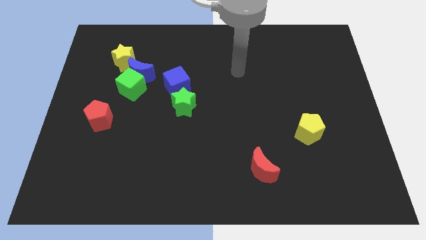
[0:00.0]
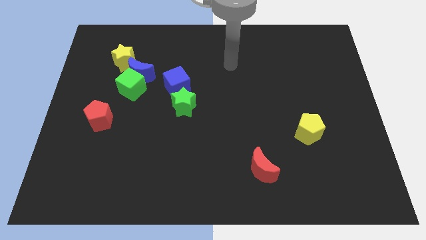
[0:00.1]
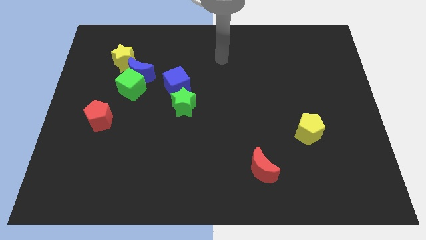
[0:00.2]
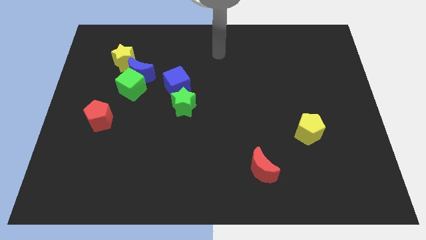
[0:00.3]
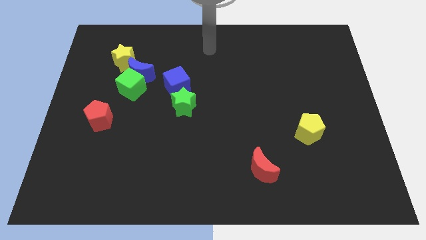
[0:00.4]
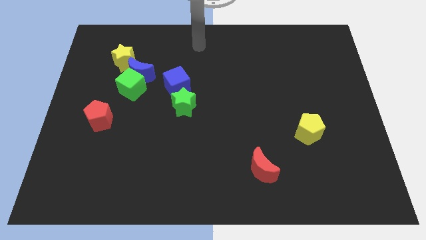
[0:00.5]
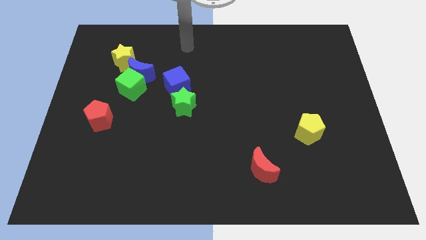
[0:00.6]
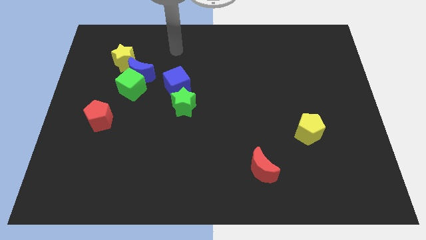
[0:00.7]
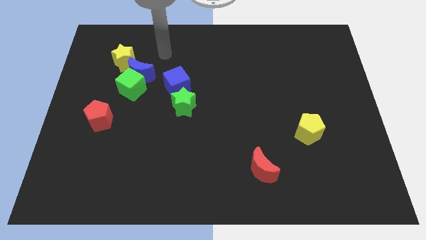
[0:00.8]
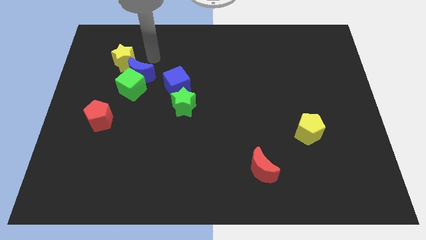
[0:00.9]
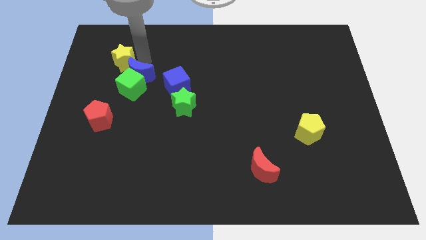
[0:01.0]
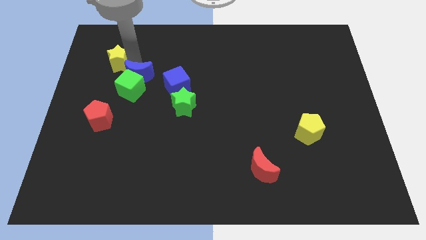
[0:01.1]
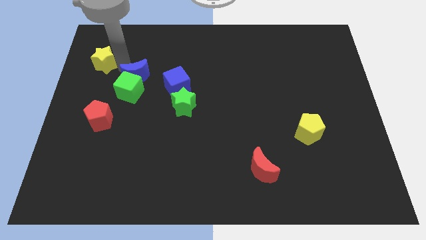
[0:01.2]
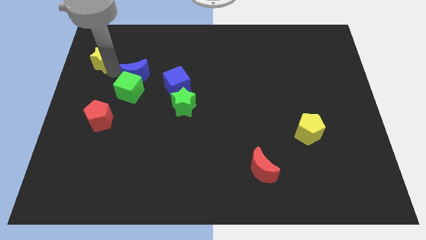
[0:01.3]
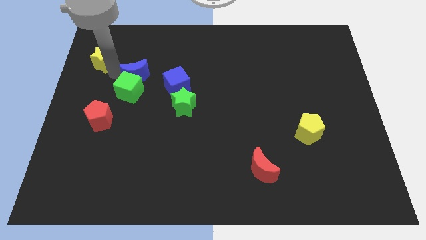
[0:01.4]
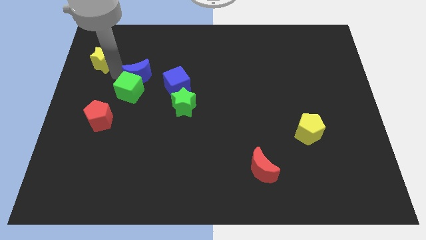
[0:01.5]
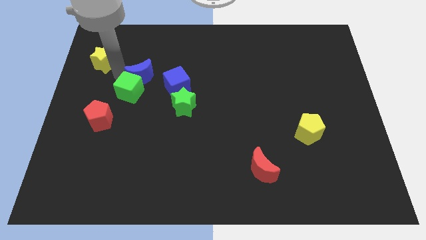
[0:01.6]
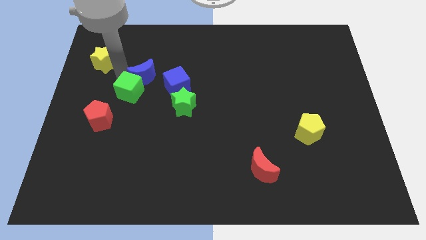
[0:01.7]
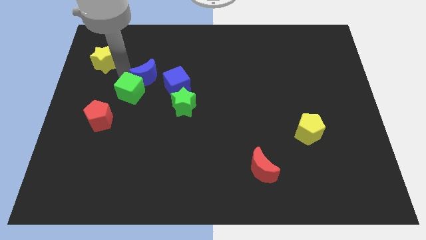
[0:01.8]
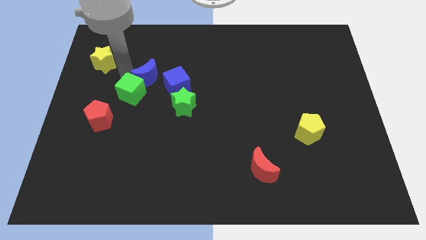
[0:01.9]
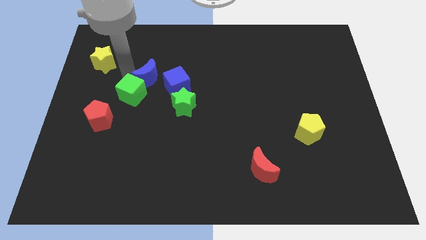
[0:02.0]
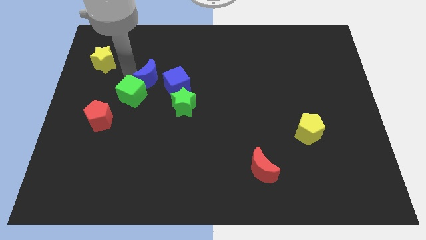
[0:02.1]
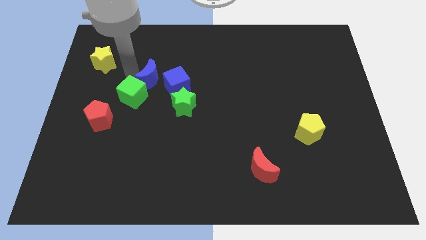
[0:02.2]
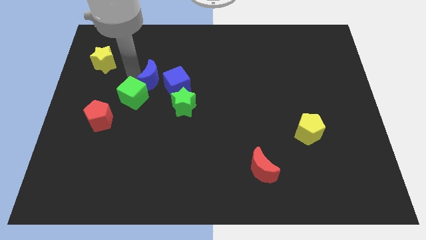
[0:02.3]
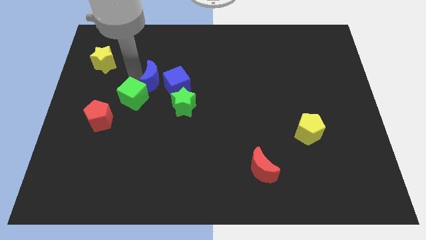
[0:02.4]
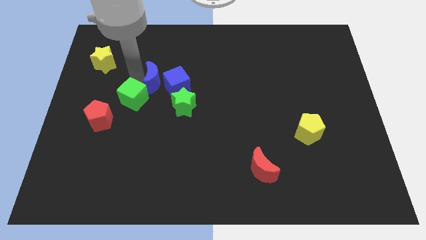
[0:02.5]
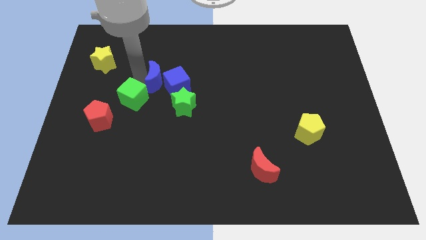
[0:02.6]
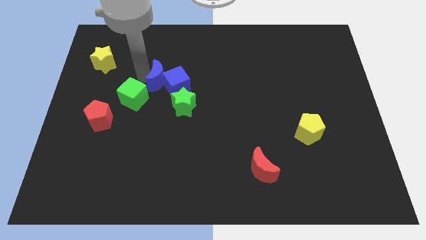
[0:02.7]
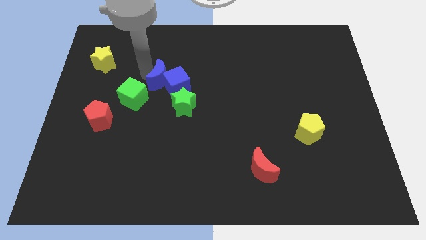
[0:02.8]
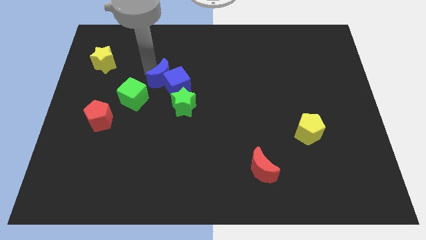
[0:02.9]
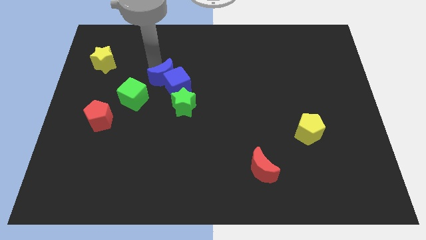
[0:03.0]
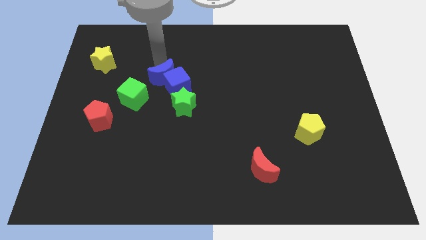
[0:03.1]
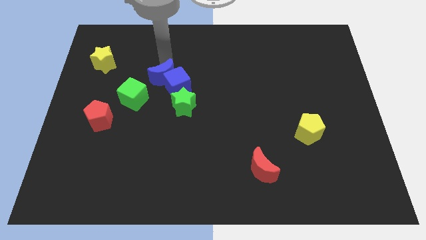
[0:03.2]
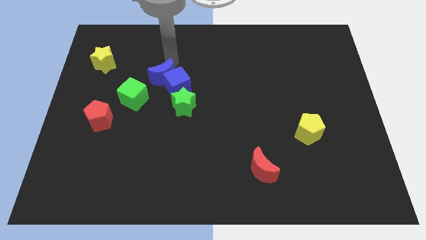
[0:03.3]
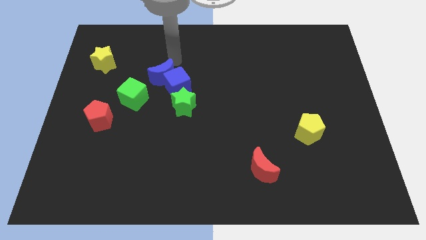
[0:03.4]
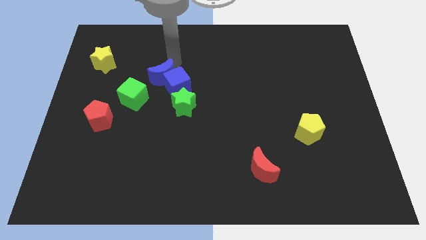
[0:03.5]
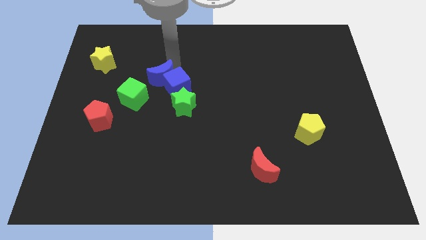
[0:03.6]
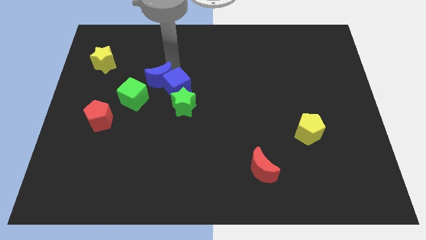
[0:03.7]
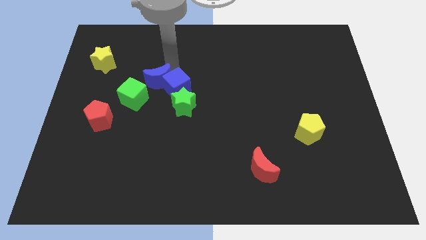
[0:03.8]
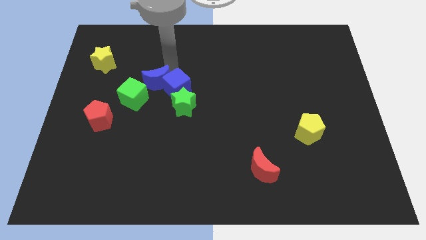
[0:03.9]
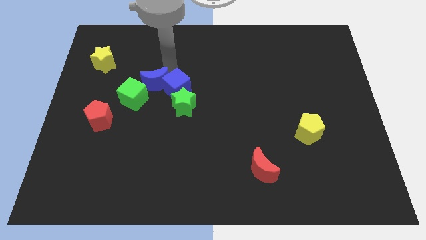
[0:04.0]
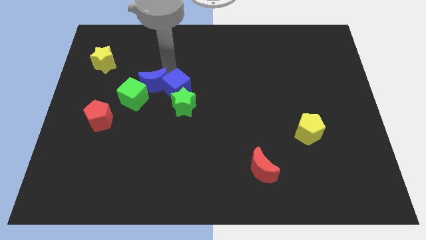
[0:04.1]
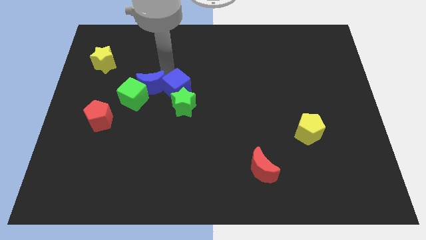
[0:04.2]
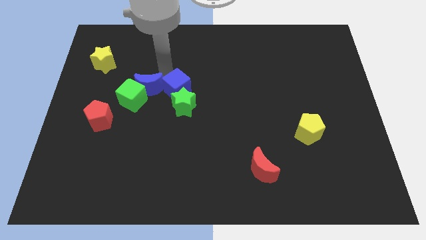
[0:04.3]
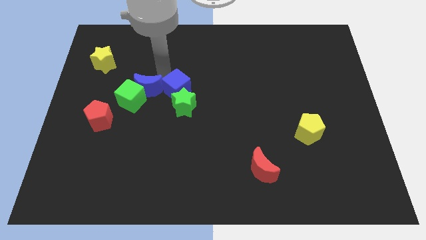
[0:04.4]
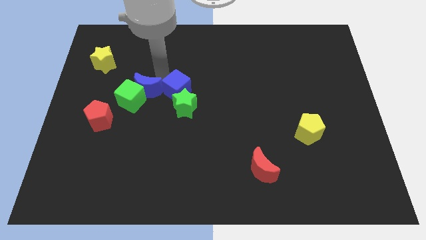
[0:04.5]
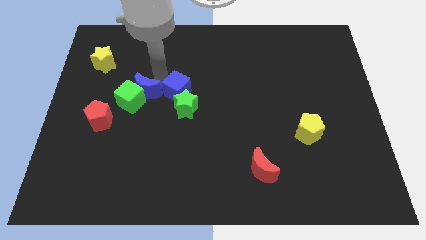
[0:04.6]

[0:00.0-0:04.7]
slide the blue moon diagonally up and to the right of the red pentagon

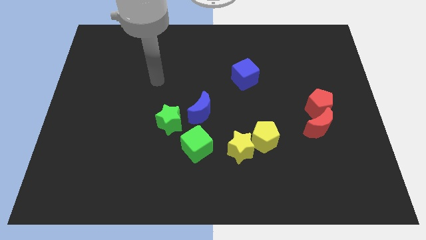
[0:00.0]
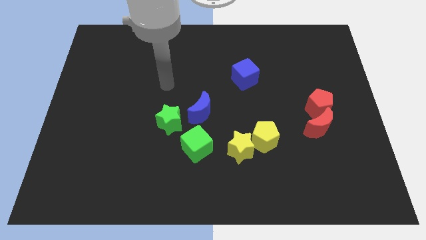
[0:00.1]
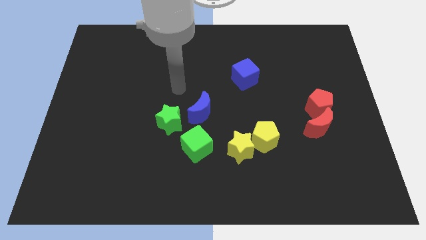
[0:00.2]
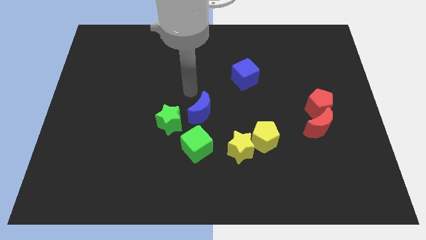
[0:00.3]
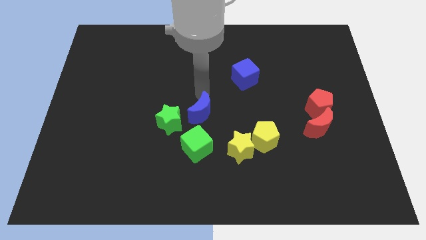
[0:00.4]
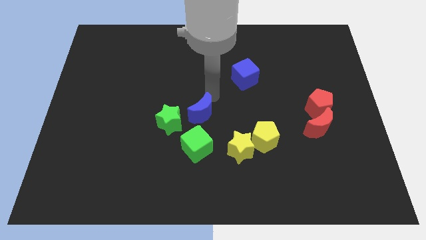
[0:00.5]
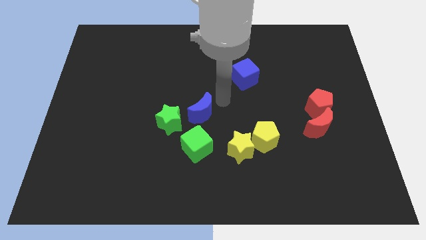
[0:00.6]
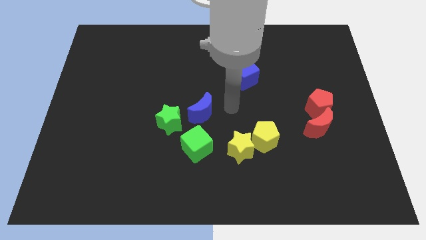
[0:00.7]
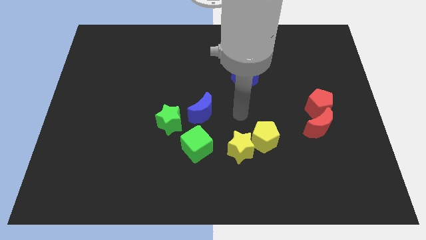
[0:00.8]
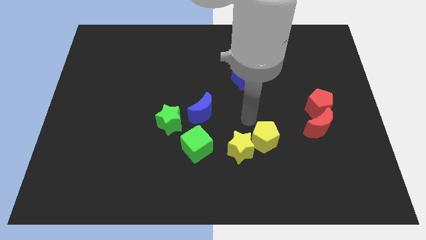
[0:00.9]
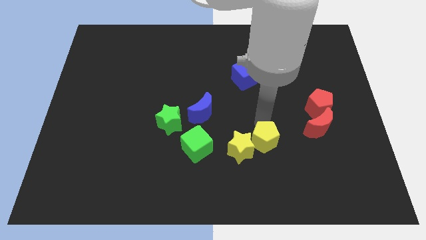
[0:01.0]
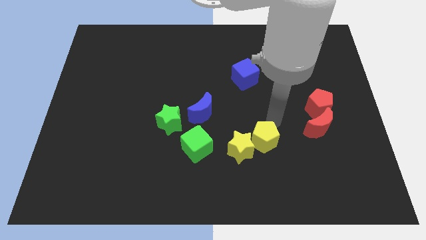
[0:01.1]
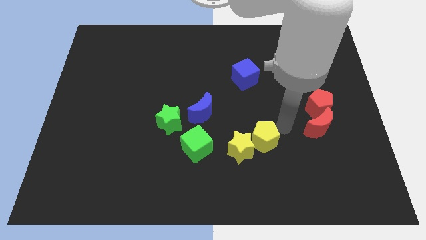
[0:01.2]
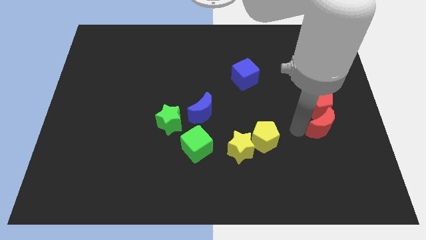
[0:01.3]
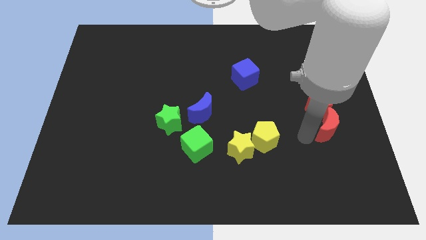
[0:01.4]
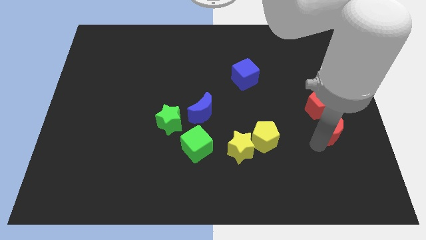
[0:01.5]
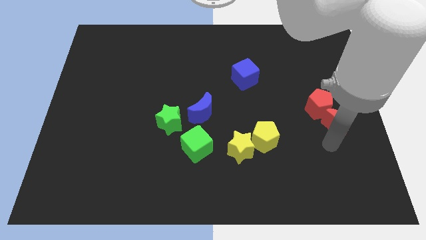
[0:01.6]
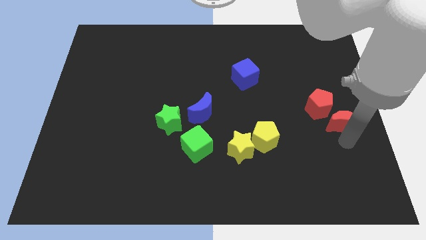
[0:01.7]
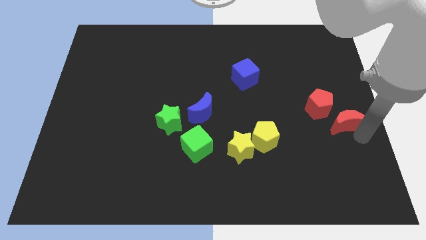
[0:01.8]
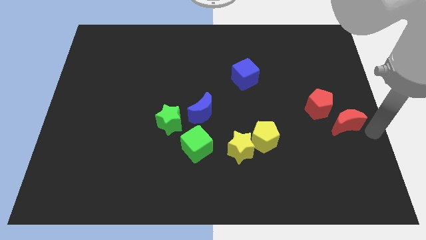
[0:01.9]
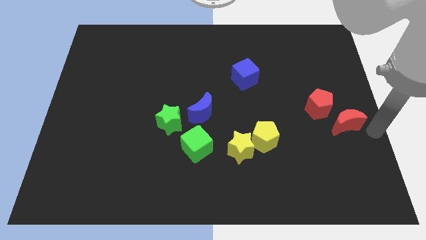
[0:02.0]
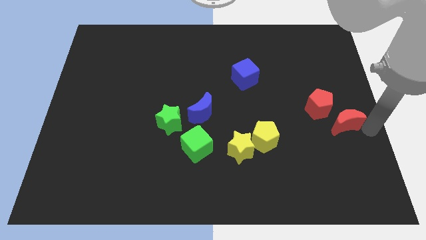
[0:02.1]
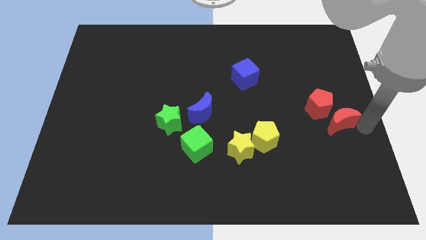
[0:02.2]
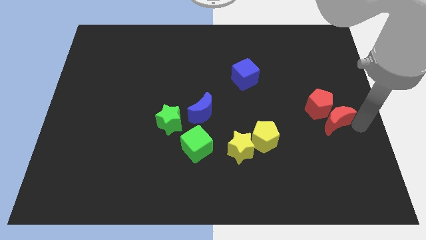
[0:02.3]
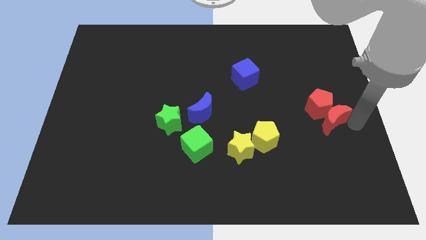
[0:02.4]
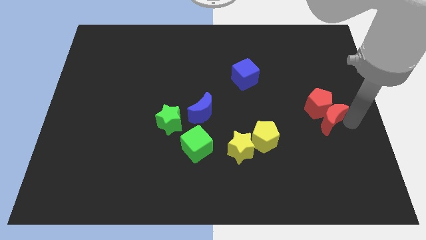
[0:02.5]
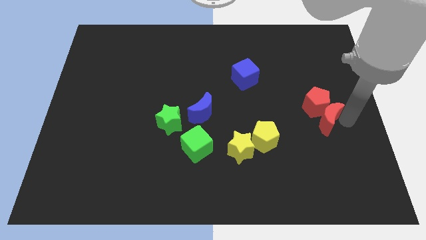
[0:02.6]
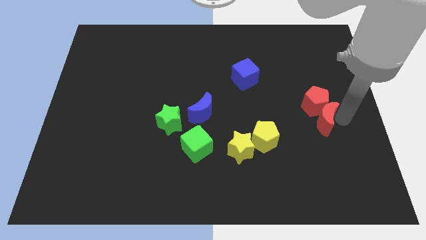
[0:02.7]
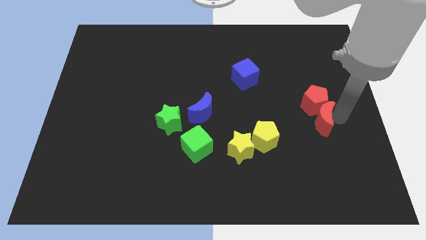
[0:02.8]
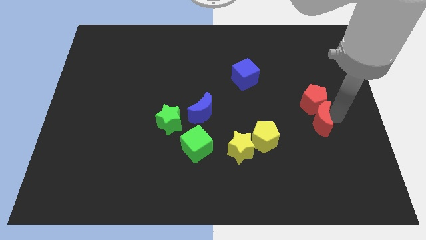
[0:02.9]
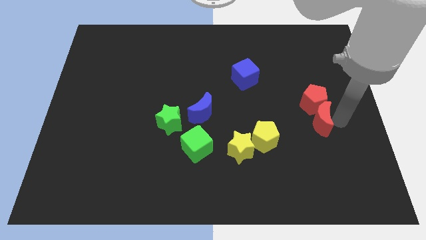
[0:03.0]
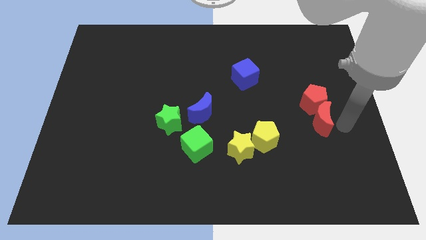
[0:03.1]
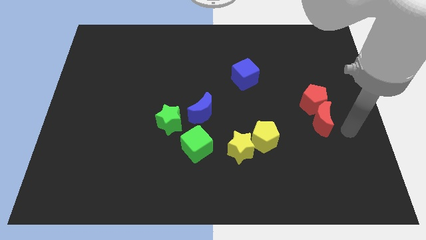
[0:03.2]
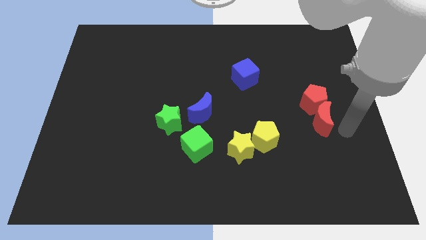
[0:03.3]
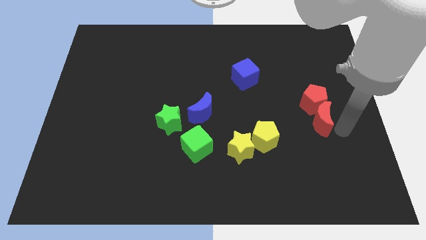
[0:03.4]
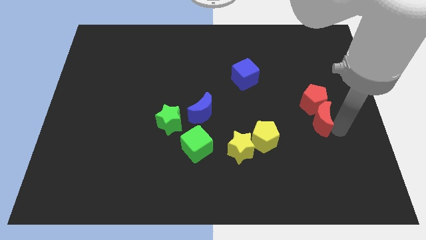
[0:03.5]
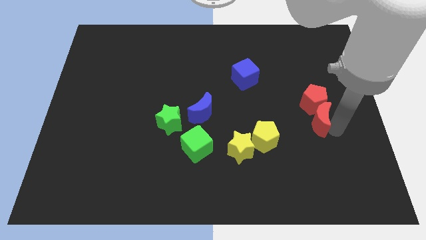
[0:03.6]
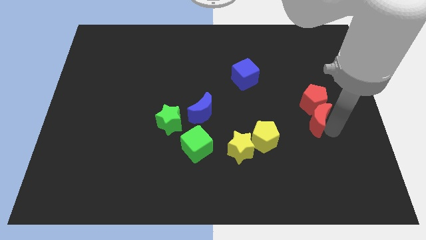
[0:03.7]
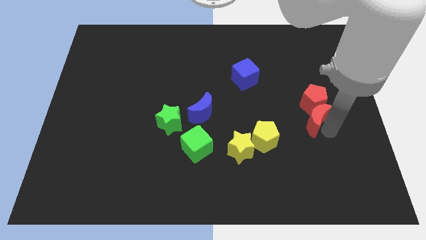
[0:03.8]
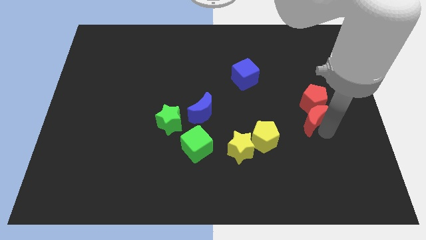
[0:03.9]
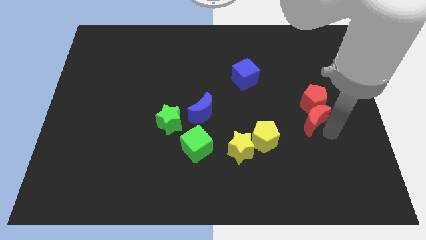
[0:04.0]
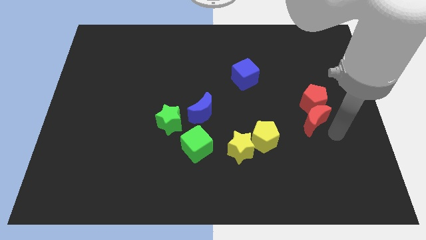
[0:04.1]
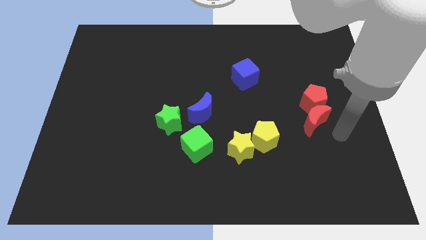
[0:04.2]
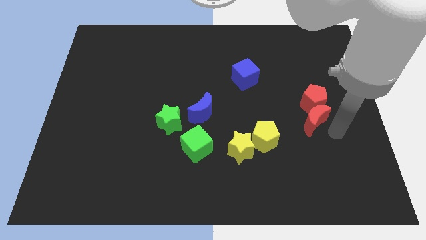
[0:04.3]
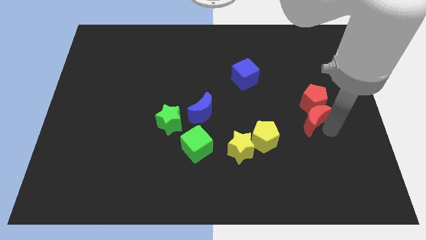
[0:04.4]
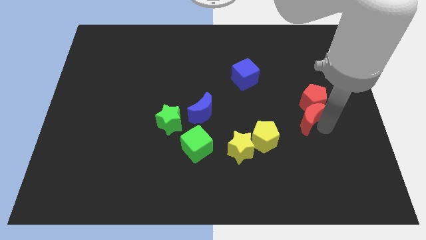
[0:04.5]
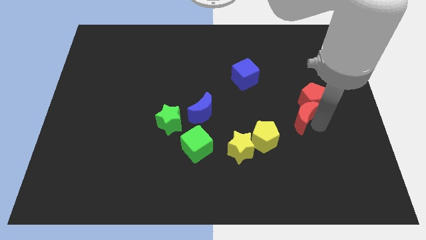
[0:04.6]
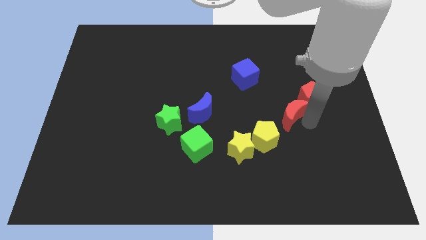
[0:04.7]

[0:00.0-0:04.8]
move the red moon just left of the red pentagon
